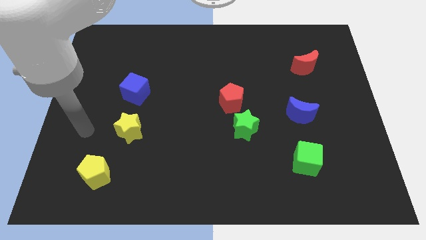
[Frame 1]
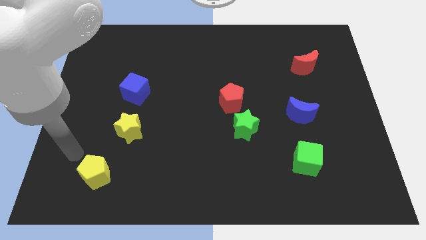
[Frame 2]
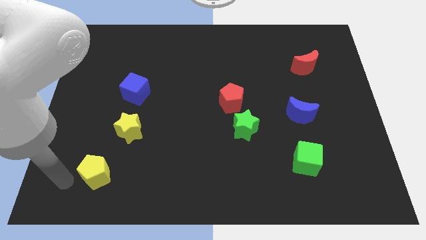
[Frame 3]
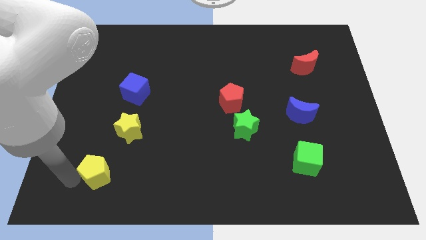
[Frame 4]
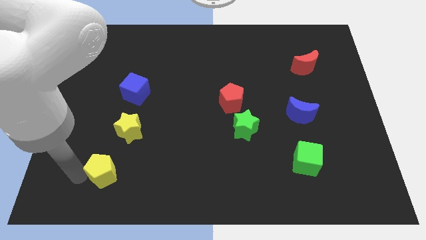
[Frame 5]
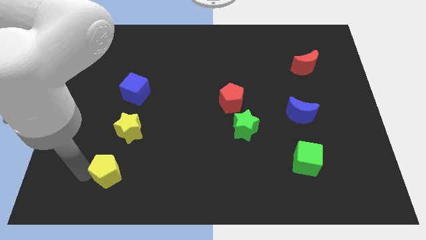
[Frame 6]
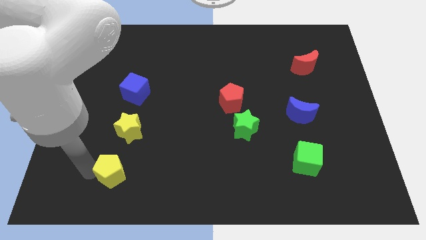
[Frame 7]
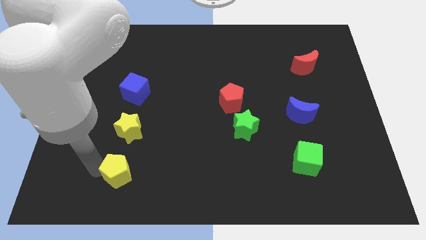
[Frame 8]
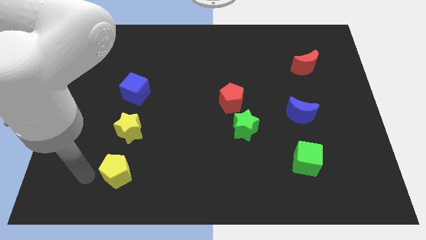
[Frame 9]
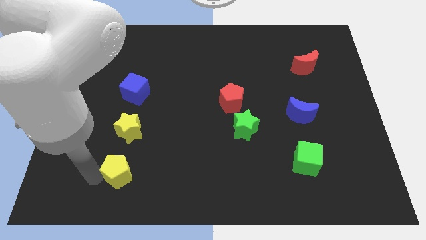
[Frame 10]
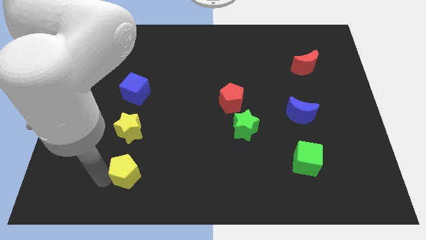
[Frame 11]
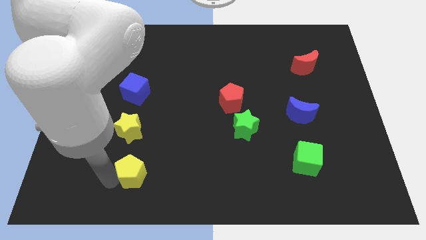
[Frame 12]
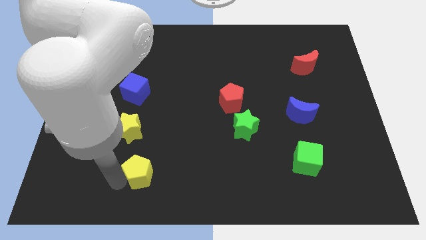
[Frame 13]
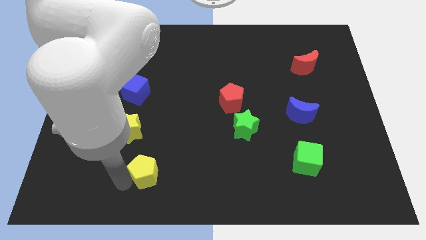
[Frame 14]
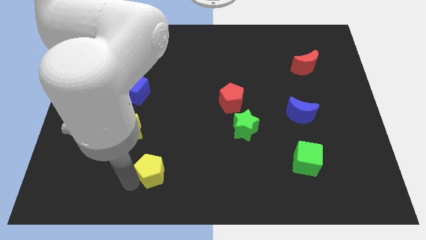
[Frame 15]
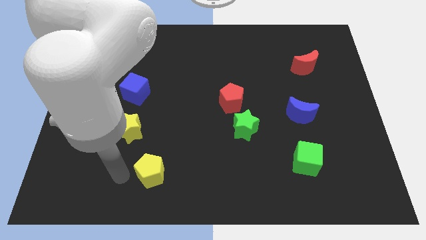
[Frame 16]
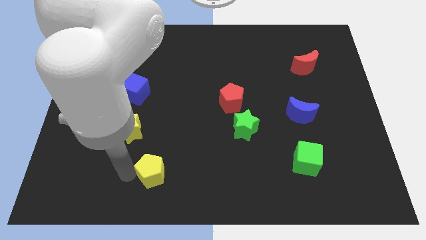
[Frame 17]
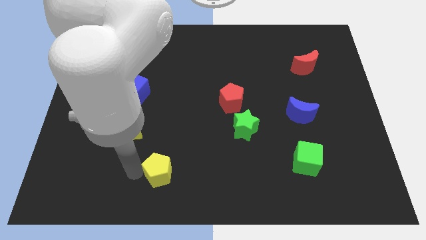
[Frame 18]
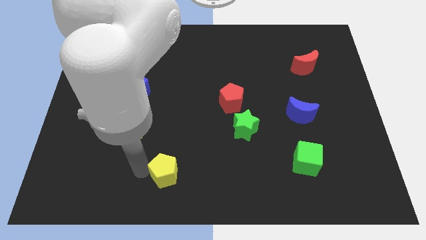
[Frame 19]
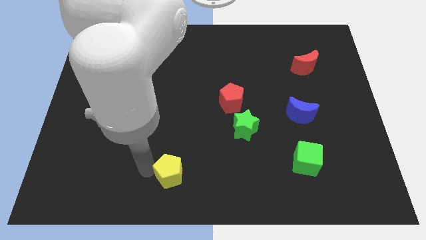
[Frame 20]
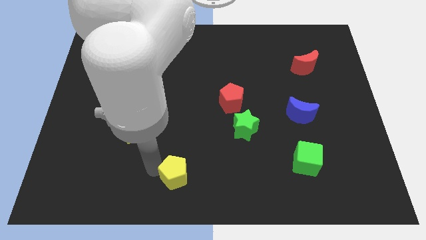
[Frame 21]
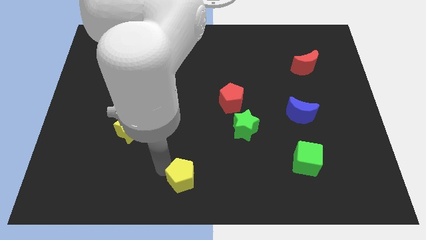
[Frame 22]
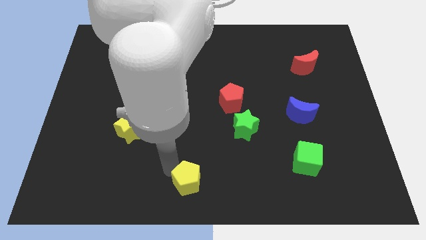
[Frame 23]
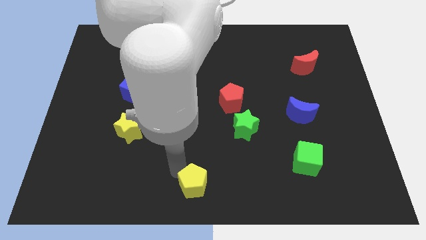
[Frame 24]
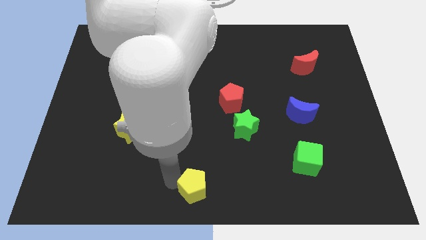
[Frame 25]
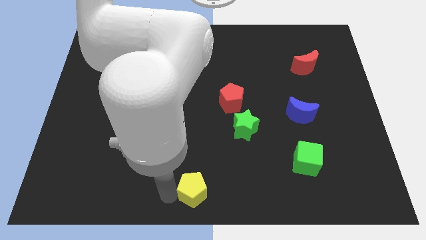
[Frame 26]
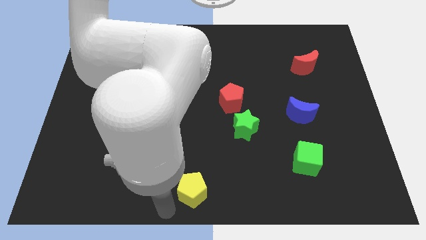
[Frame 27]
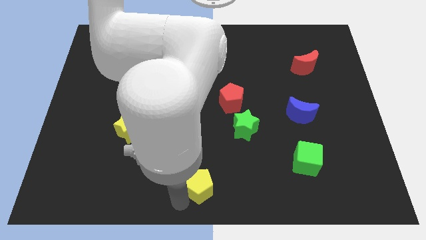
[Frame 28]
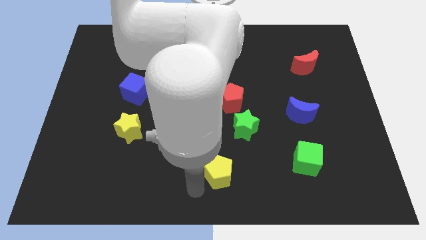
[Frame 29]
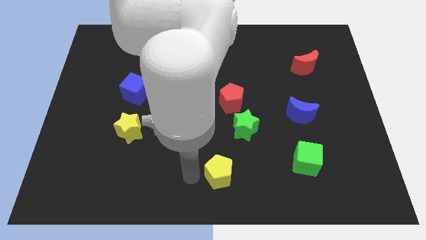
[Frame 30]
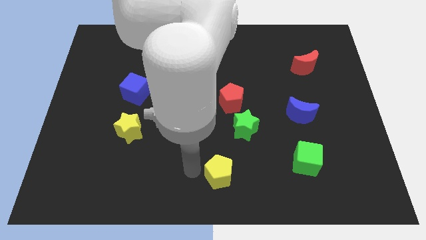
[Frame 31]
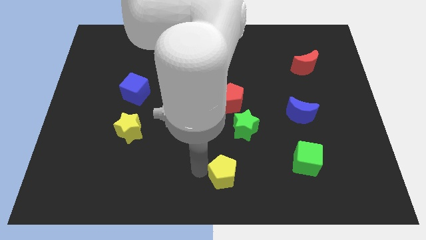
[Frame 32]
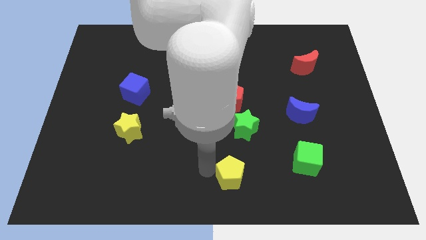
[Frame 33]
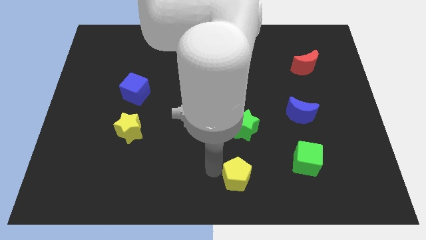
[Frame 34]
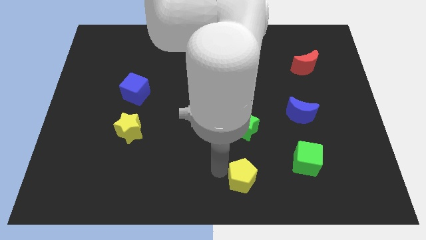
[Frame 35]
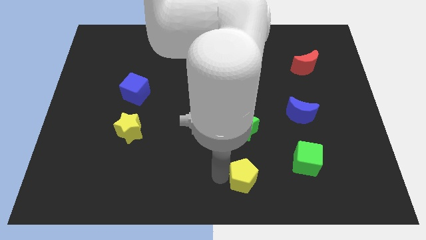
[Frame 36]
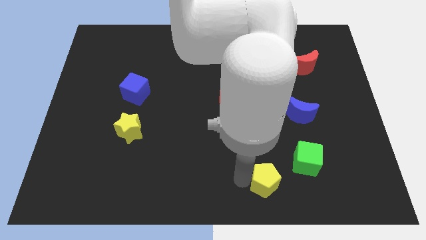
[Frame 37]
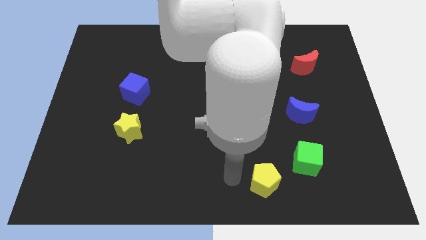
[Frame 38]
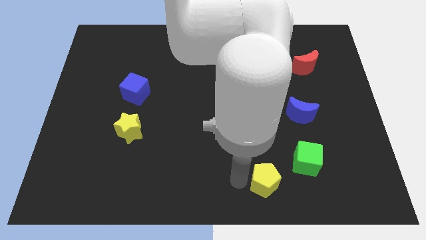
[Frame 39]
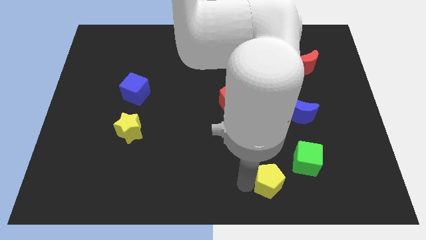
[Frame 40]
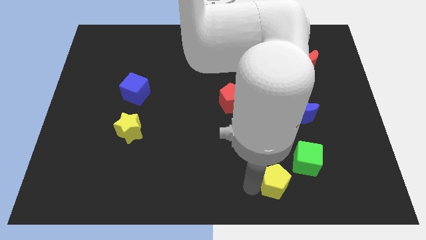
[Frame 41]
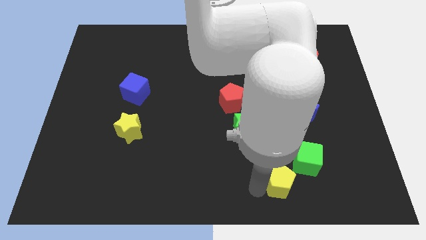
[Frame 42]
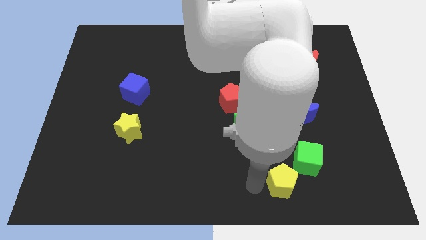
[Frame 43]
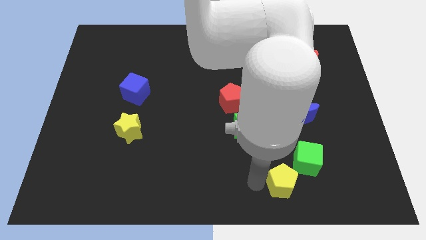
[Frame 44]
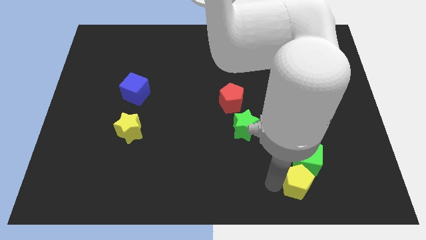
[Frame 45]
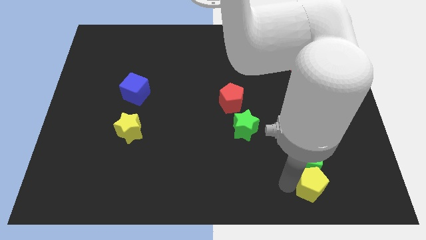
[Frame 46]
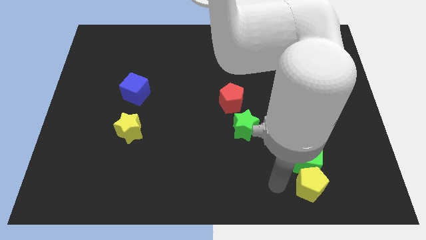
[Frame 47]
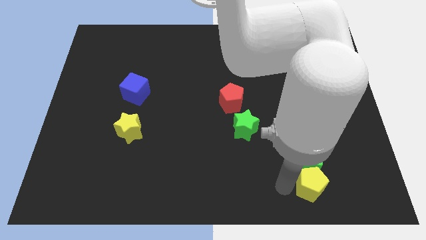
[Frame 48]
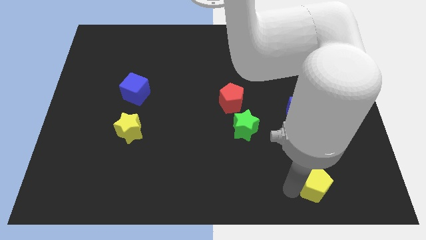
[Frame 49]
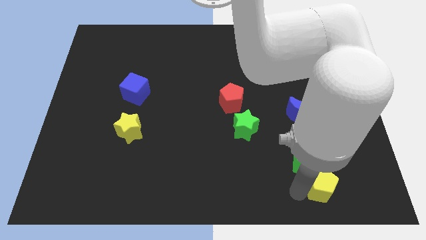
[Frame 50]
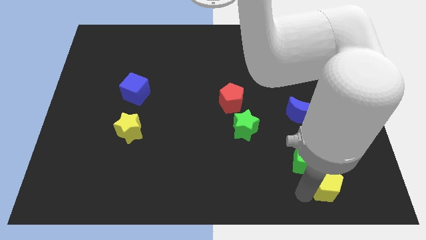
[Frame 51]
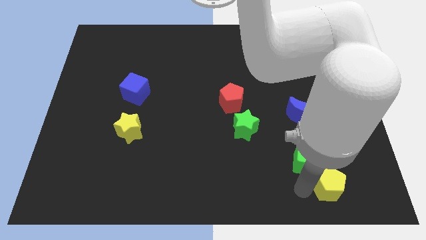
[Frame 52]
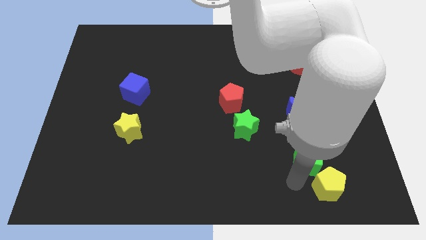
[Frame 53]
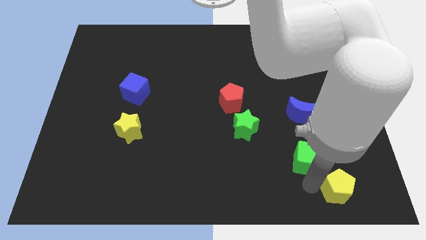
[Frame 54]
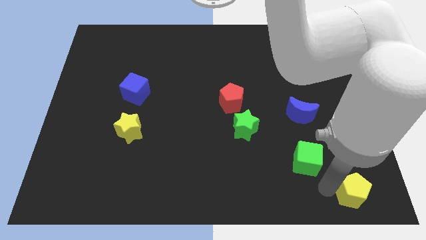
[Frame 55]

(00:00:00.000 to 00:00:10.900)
move the yellow pentagon to the bottom right corner
